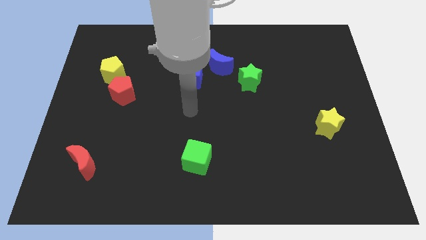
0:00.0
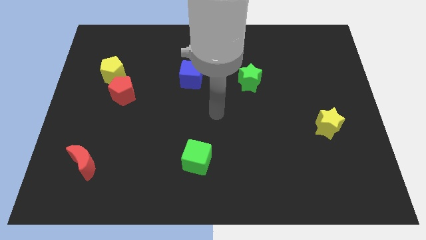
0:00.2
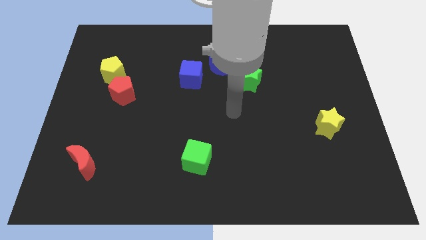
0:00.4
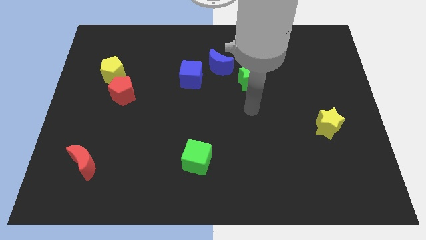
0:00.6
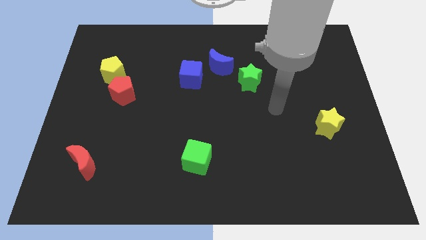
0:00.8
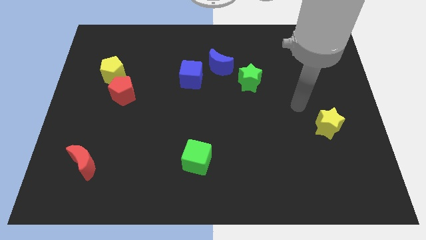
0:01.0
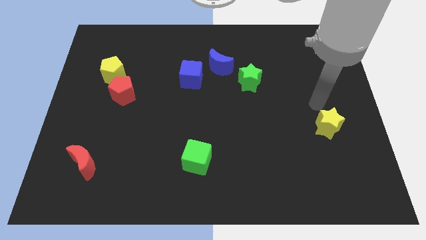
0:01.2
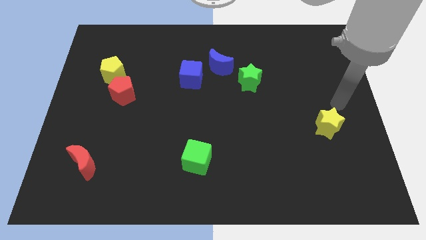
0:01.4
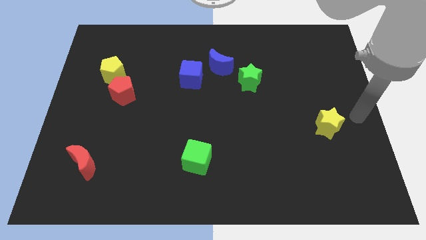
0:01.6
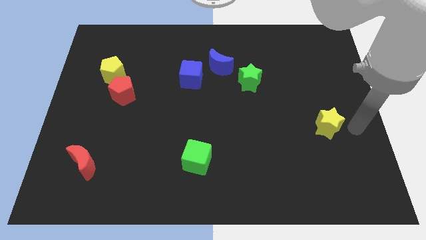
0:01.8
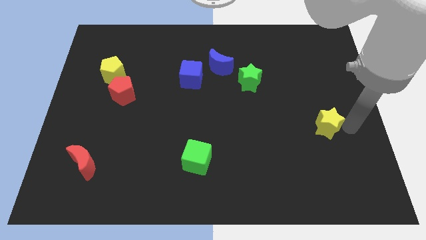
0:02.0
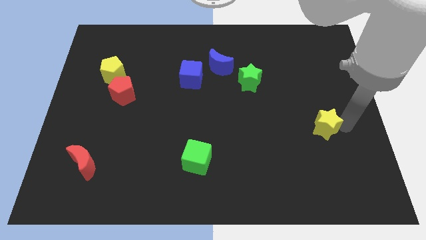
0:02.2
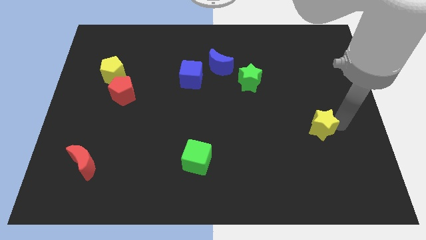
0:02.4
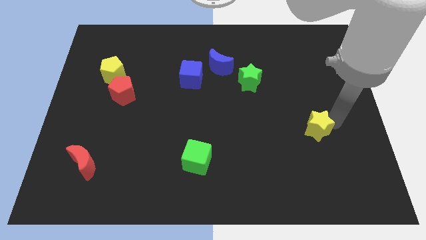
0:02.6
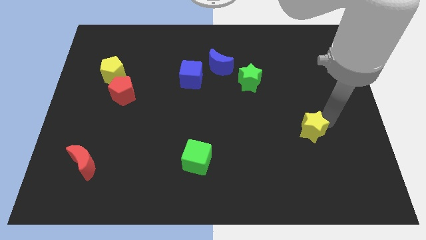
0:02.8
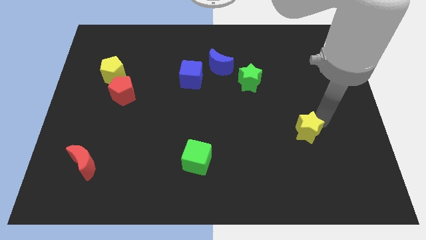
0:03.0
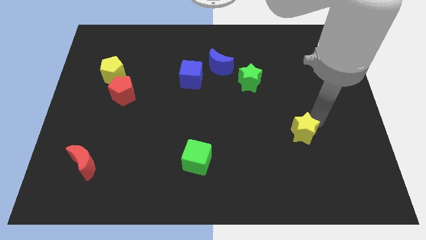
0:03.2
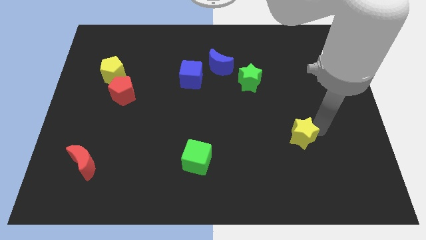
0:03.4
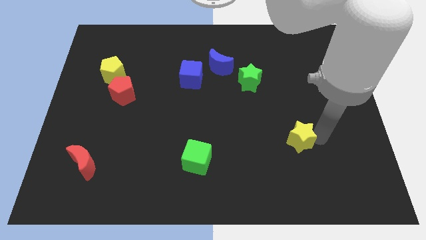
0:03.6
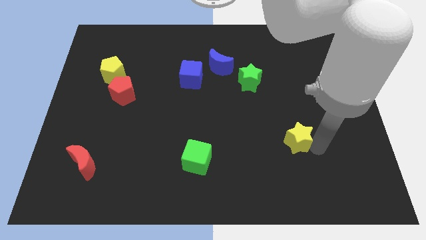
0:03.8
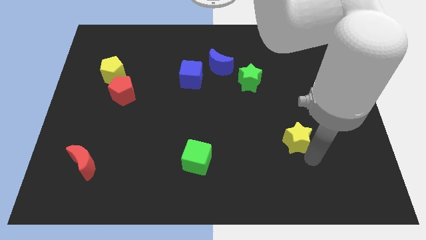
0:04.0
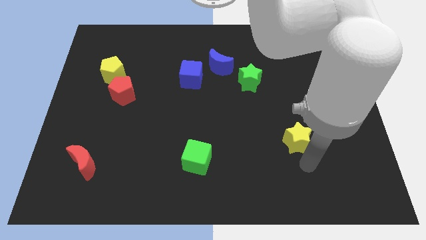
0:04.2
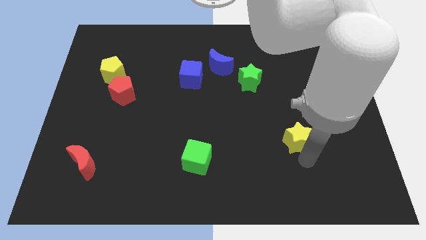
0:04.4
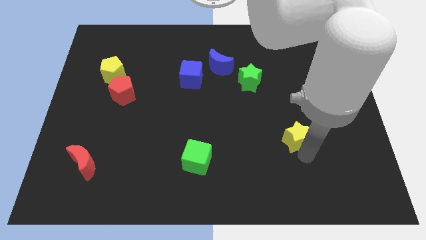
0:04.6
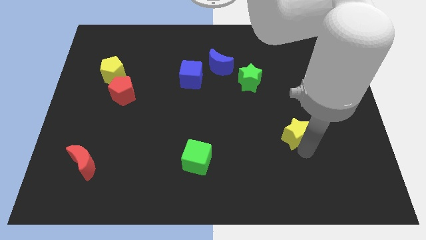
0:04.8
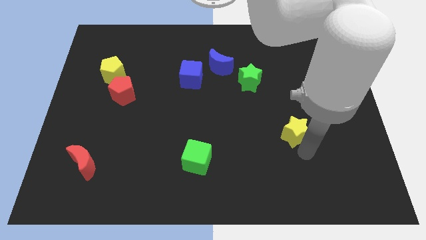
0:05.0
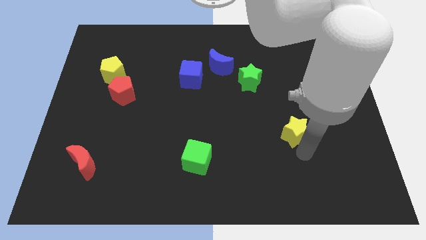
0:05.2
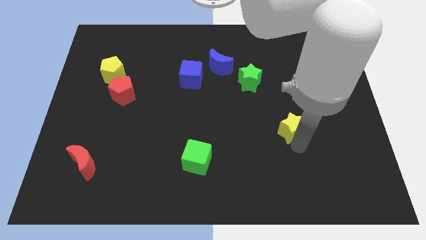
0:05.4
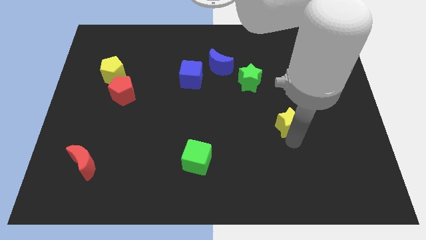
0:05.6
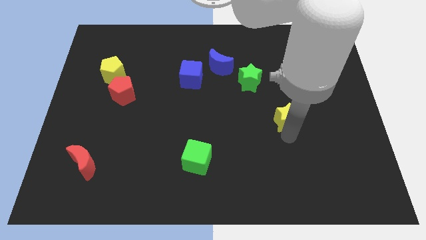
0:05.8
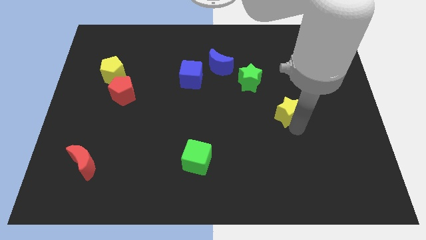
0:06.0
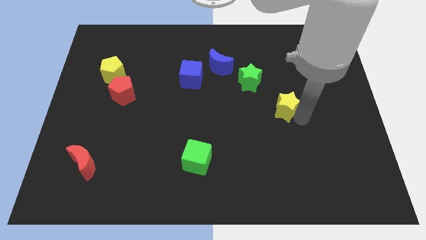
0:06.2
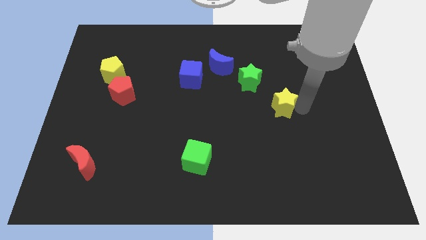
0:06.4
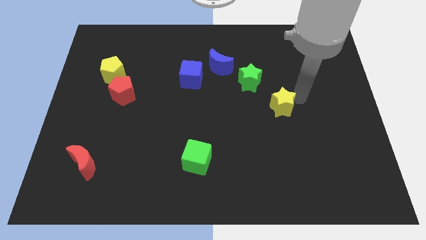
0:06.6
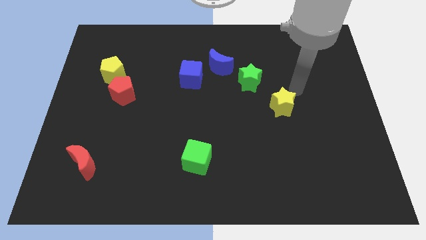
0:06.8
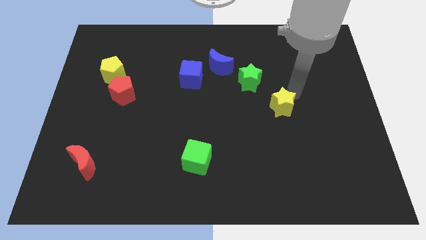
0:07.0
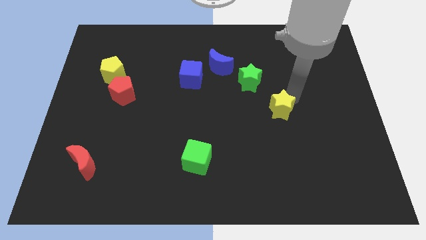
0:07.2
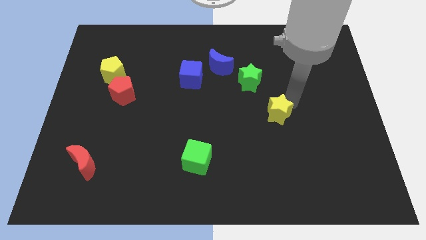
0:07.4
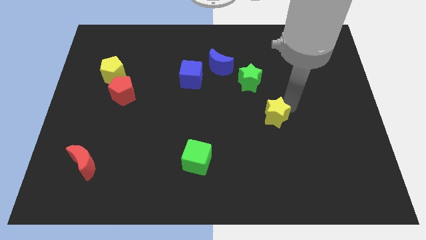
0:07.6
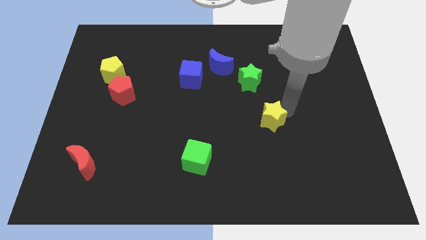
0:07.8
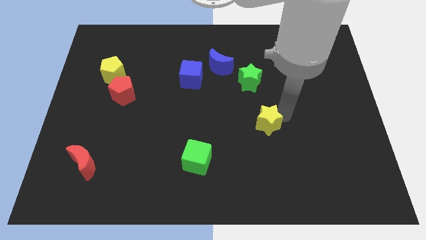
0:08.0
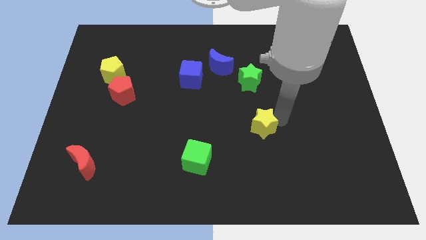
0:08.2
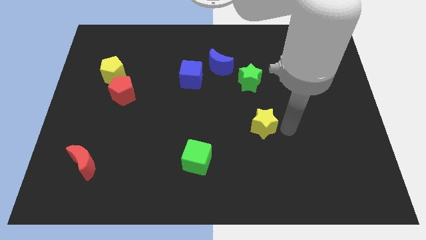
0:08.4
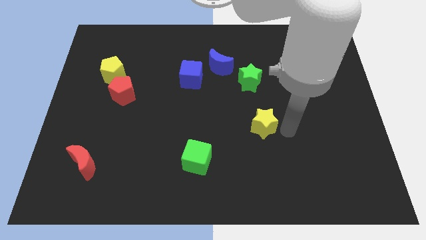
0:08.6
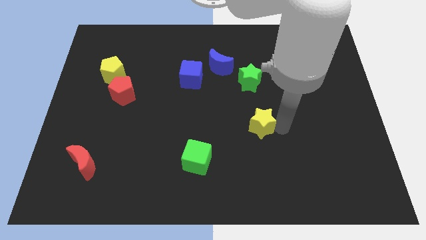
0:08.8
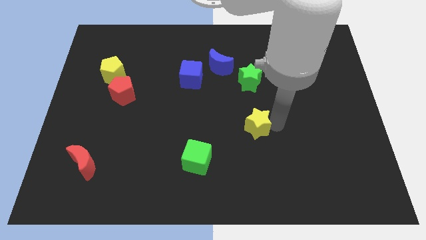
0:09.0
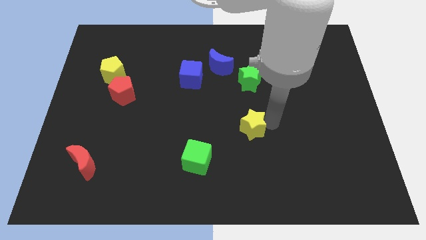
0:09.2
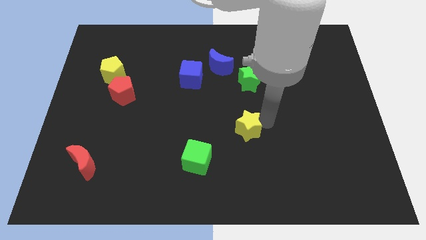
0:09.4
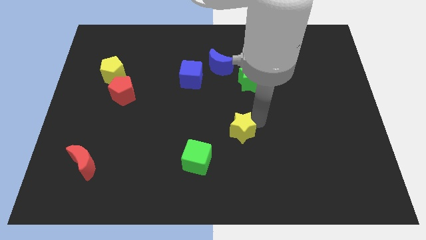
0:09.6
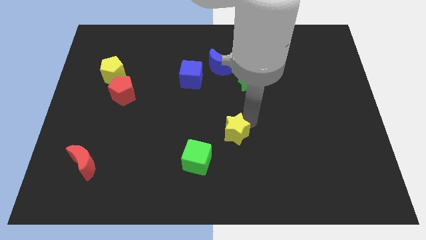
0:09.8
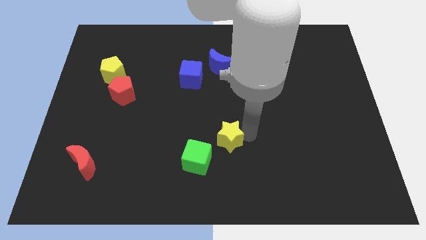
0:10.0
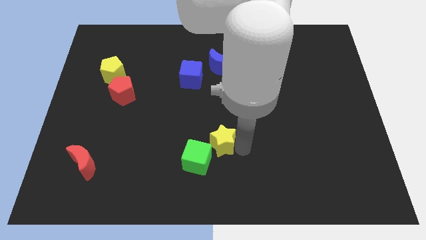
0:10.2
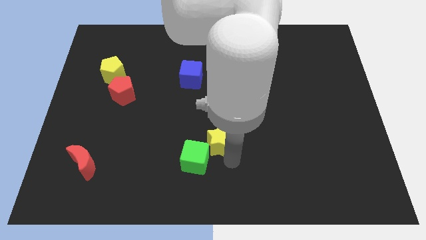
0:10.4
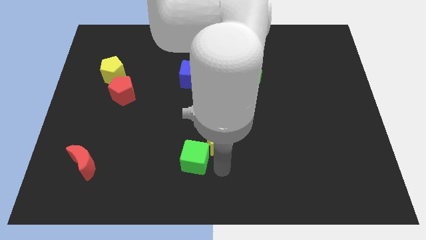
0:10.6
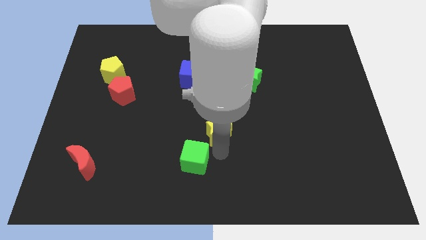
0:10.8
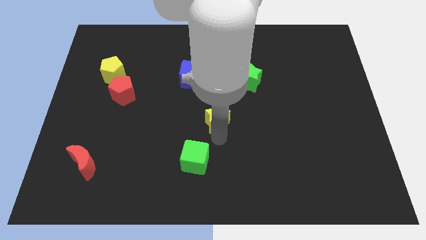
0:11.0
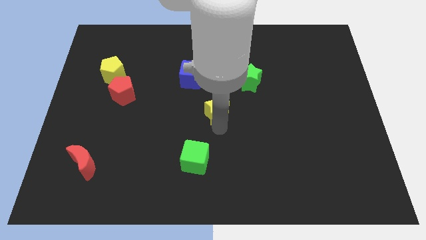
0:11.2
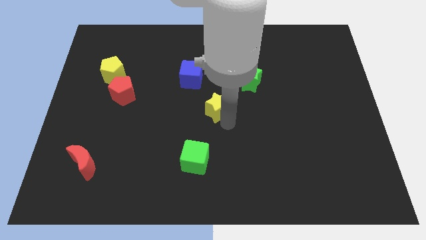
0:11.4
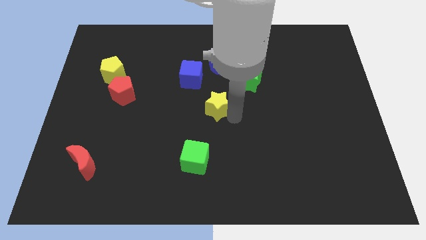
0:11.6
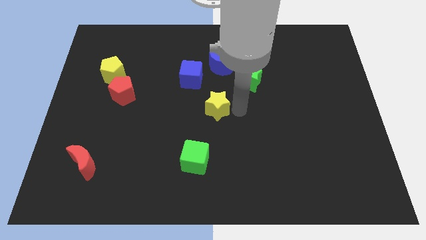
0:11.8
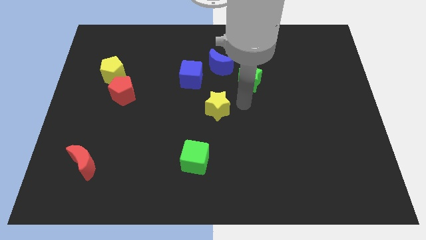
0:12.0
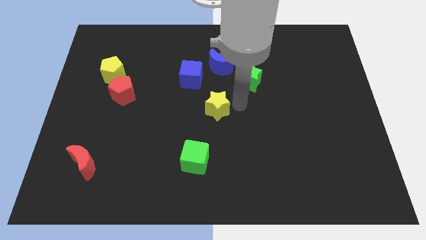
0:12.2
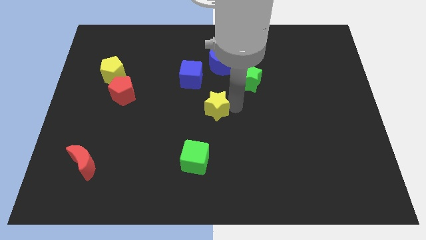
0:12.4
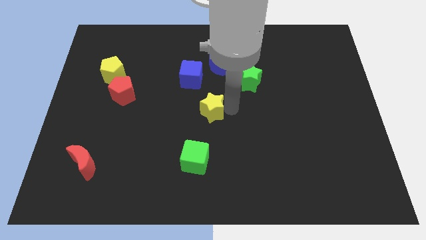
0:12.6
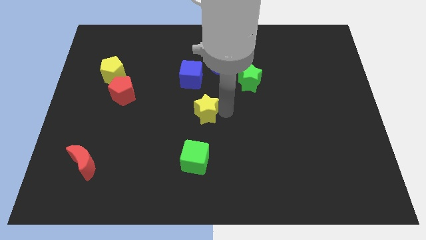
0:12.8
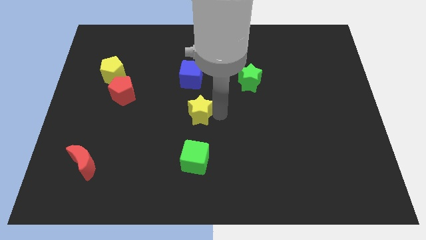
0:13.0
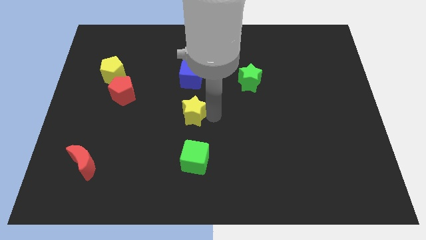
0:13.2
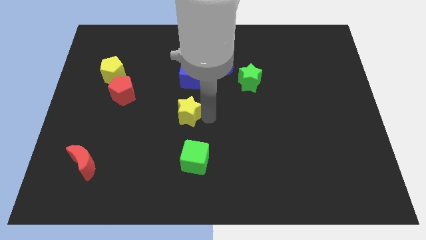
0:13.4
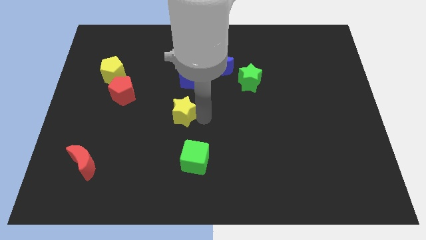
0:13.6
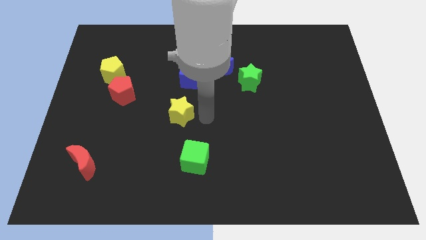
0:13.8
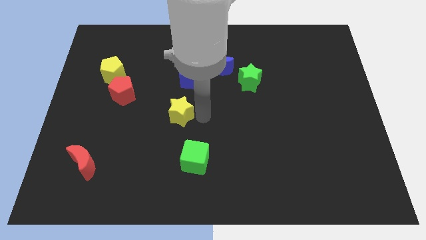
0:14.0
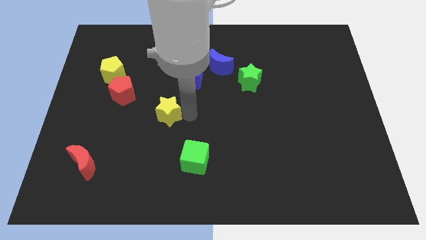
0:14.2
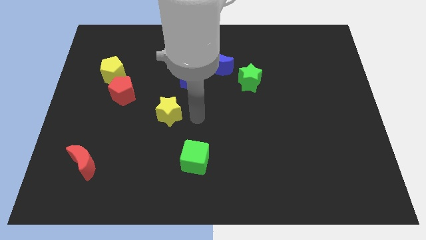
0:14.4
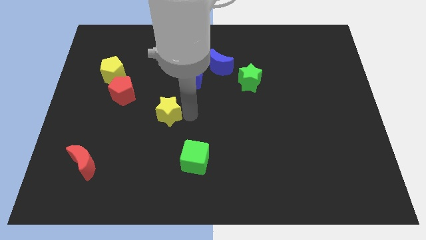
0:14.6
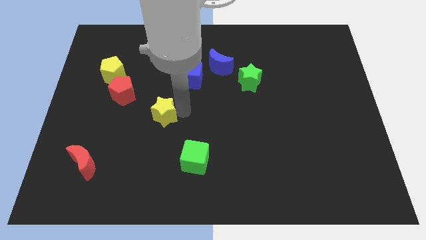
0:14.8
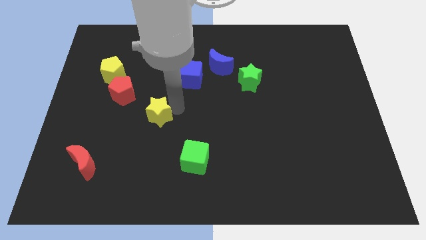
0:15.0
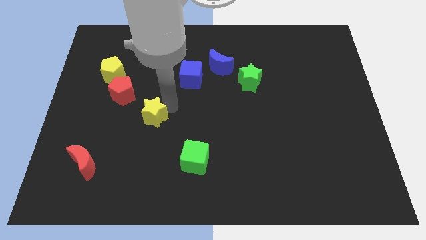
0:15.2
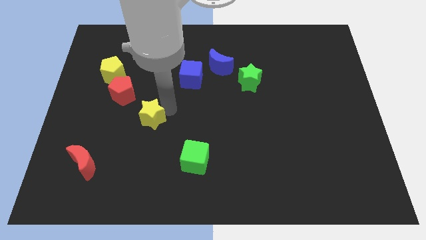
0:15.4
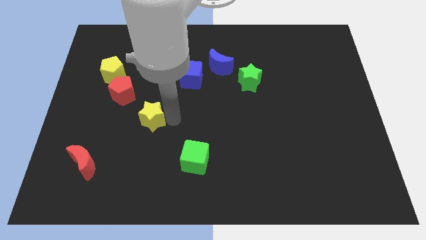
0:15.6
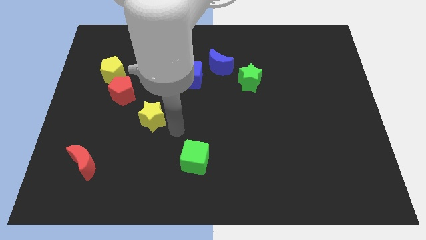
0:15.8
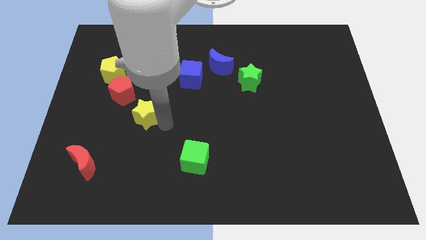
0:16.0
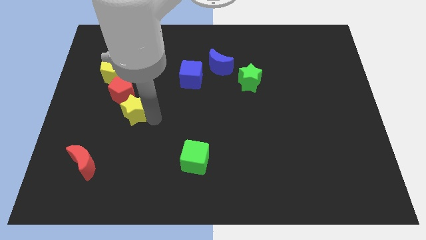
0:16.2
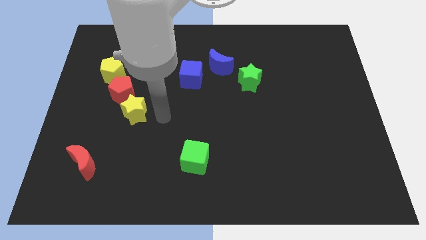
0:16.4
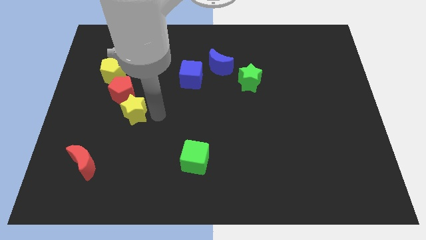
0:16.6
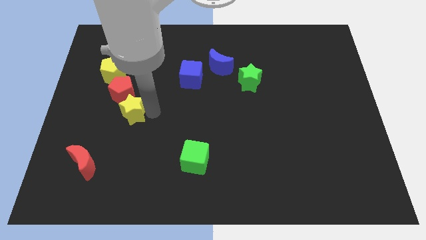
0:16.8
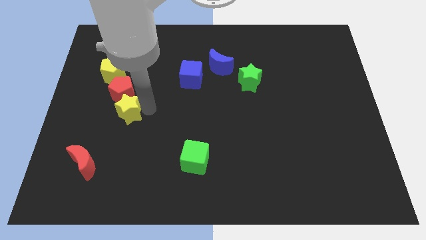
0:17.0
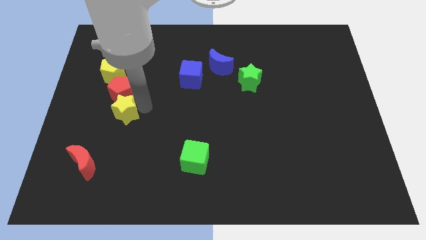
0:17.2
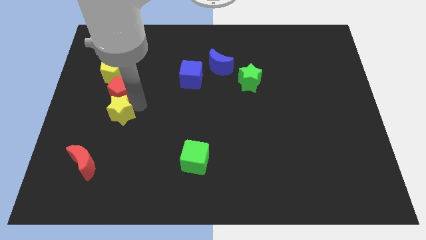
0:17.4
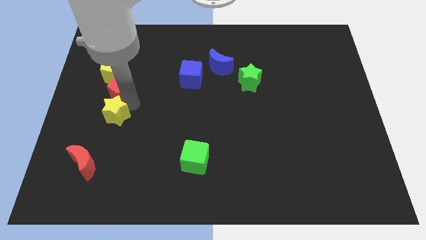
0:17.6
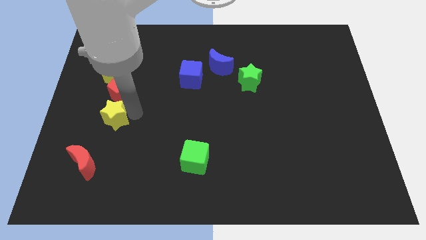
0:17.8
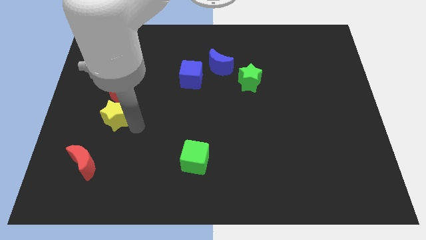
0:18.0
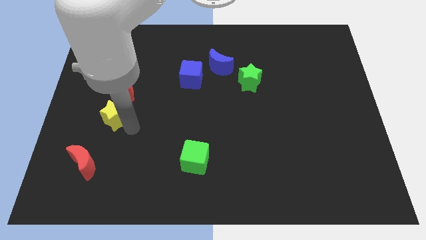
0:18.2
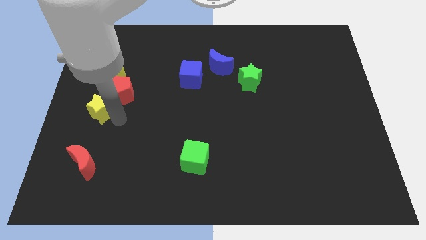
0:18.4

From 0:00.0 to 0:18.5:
move the yellow star to the left side of the board
